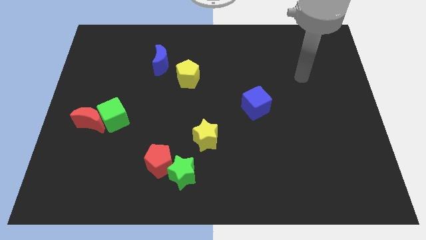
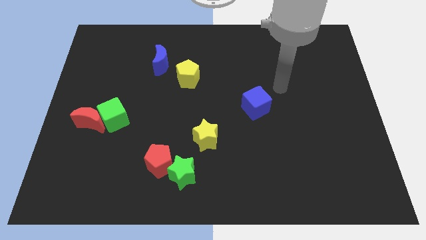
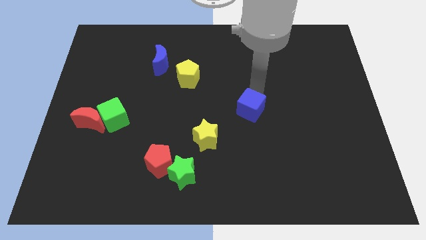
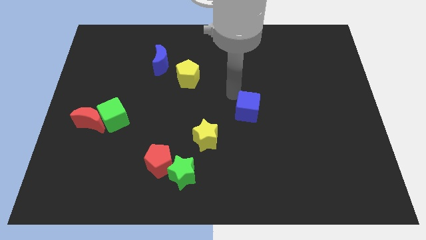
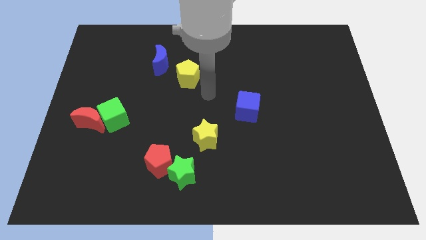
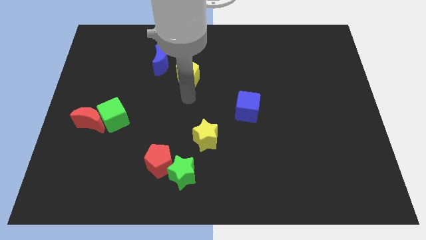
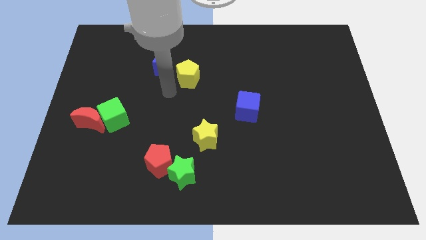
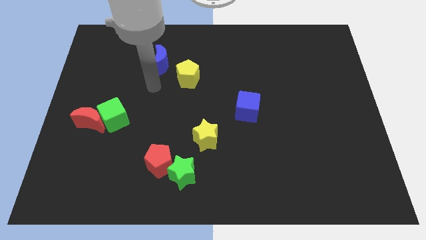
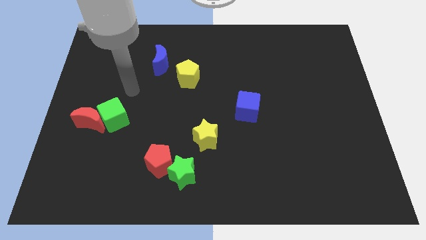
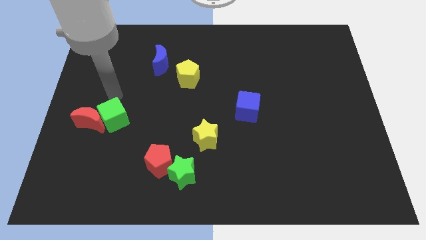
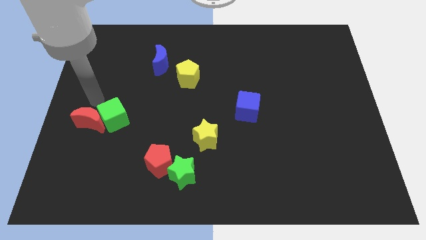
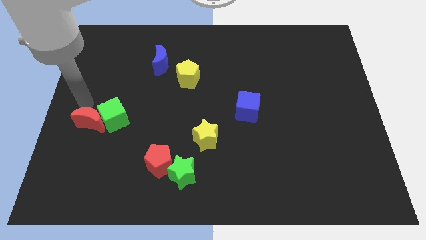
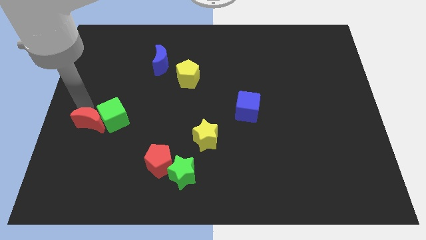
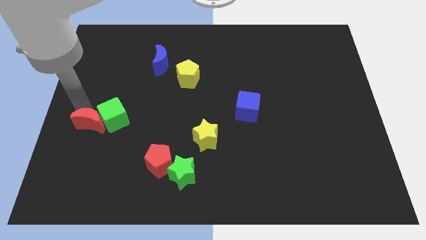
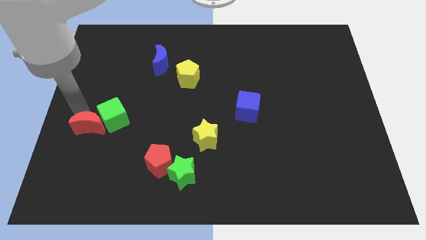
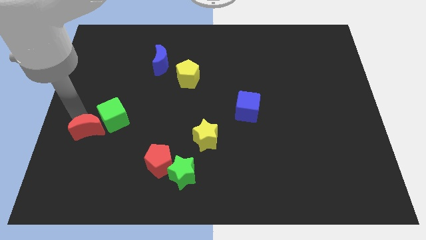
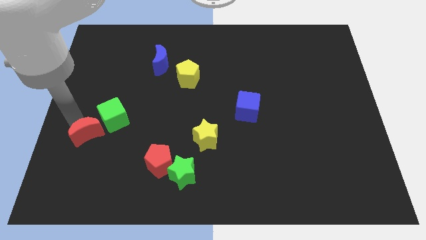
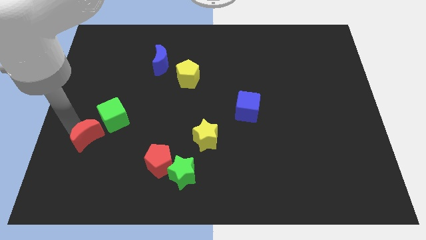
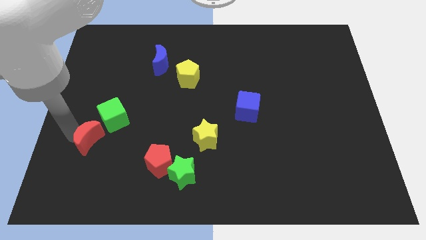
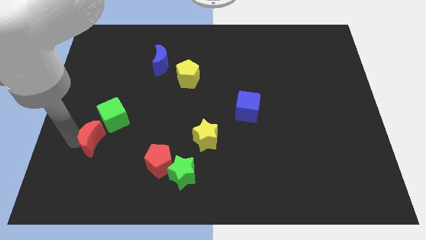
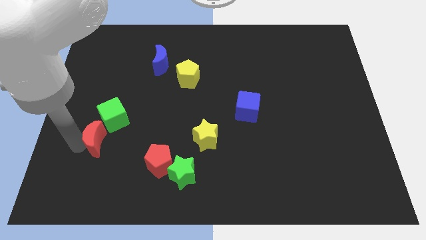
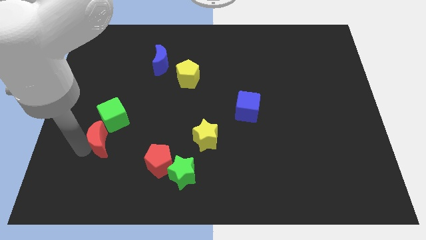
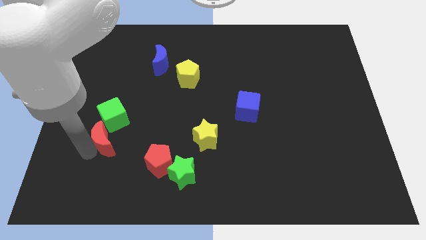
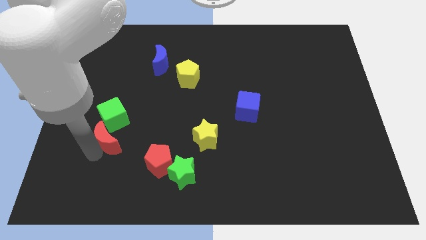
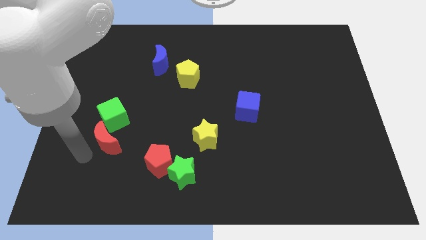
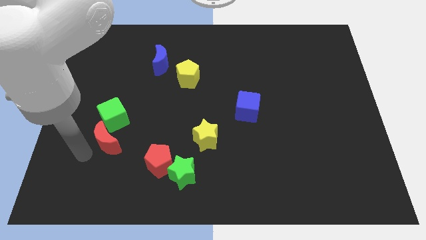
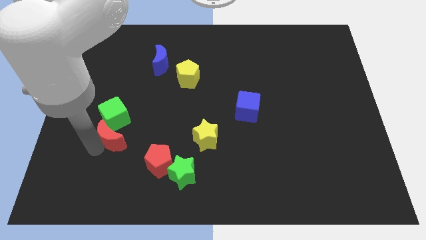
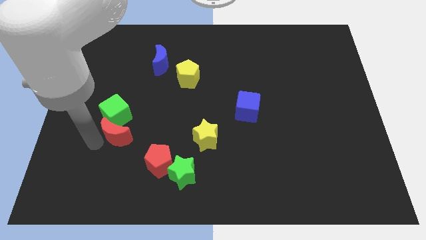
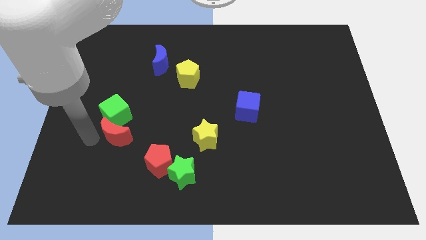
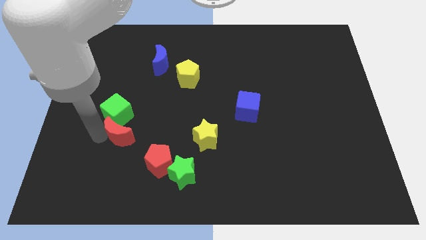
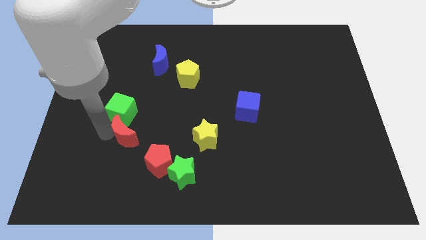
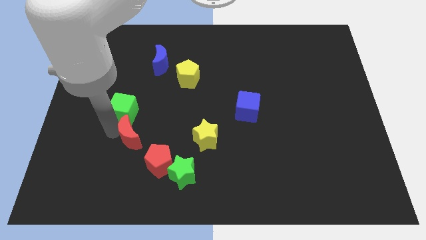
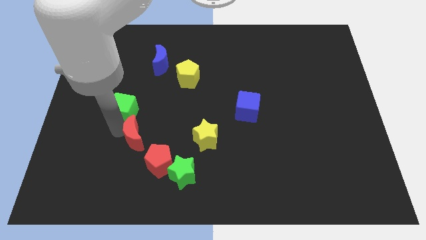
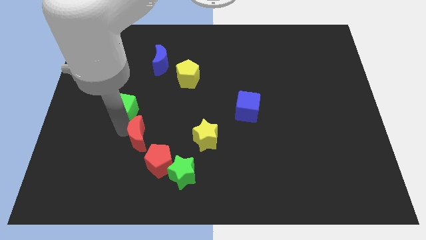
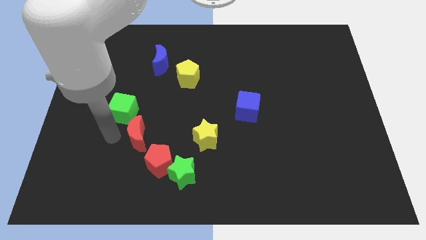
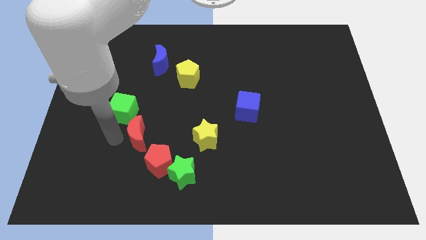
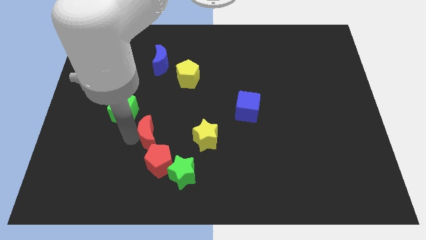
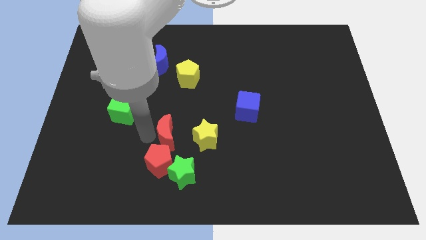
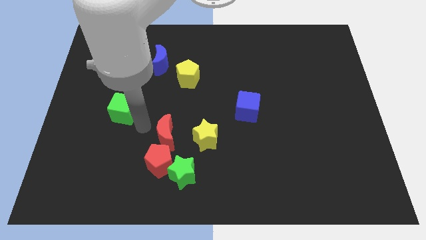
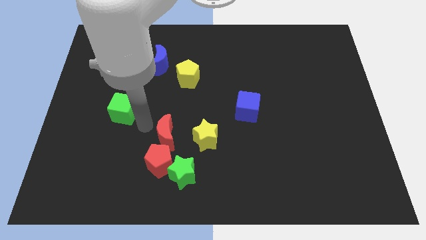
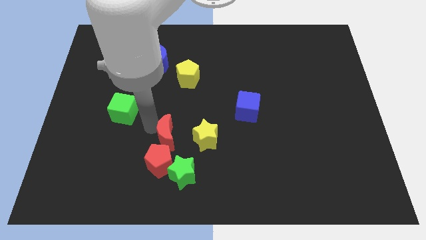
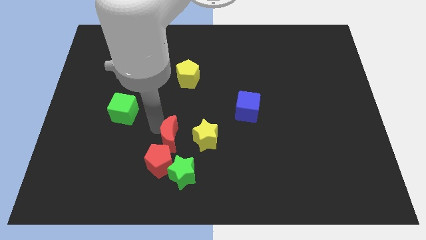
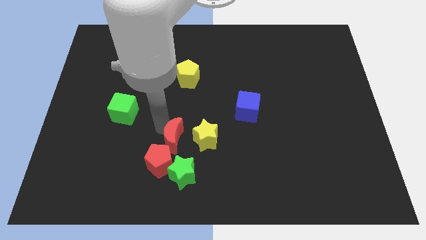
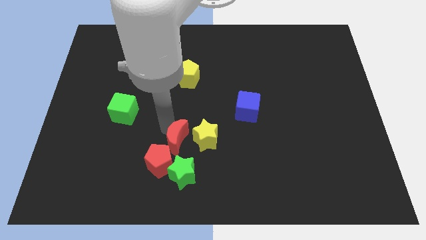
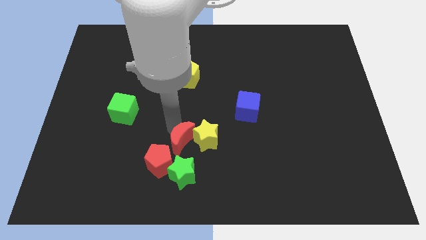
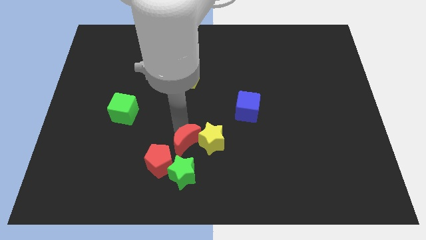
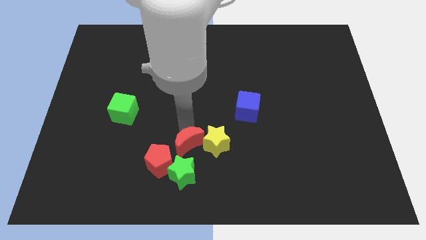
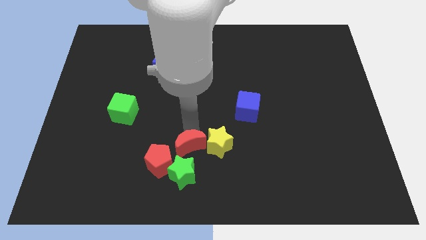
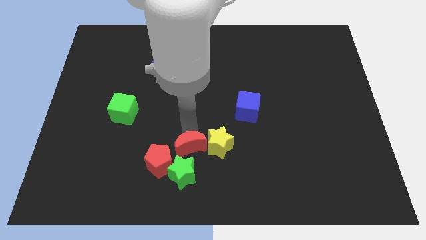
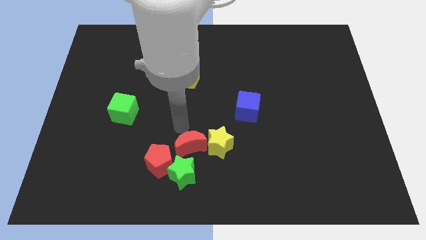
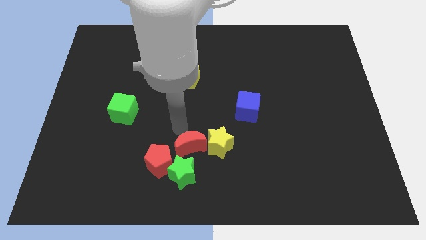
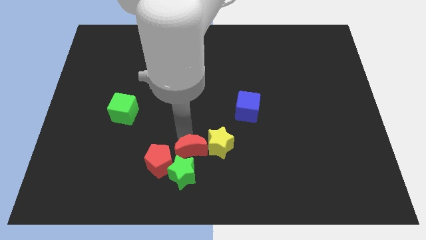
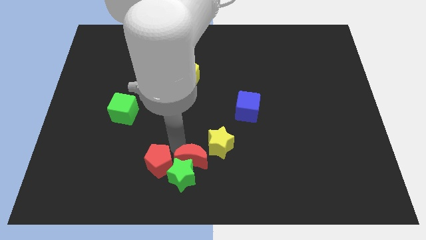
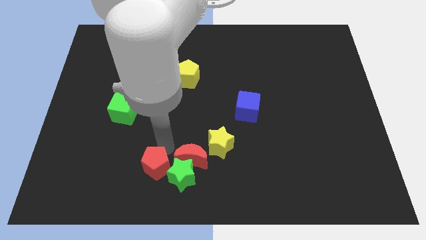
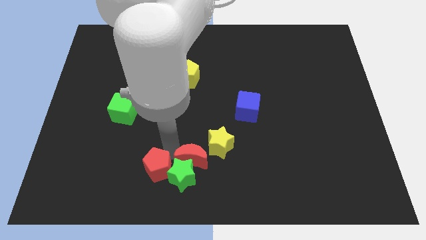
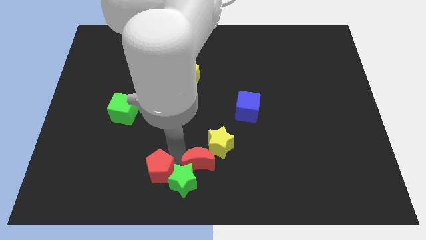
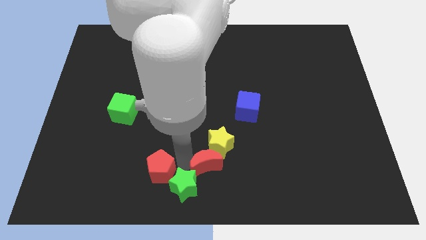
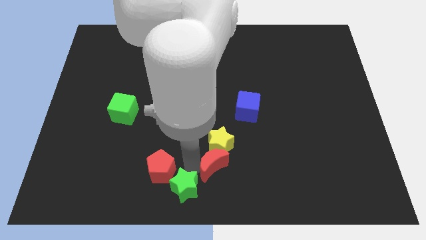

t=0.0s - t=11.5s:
put the red moon right of the green star

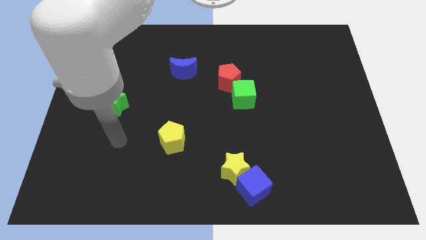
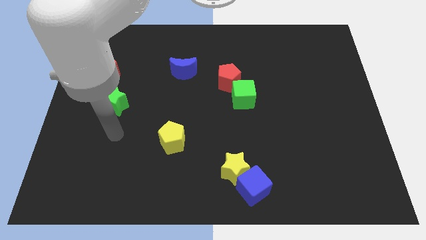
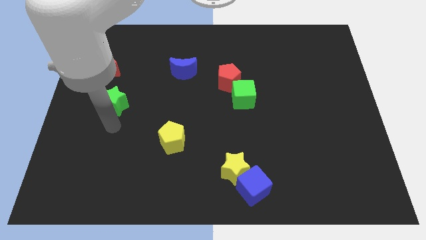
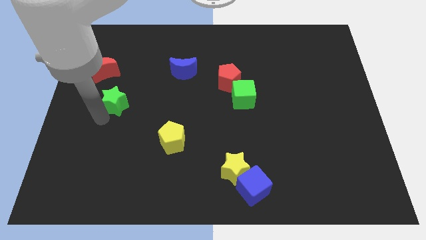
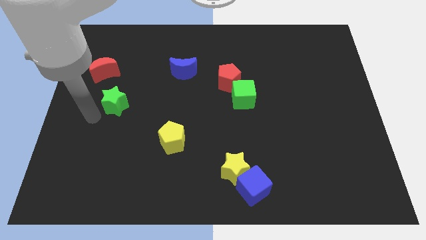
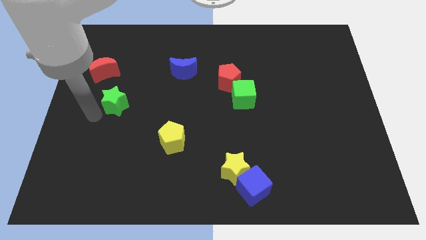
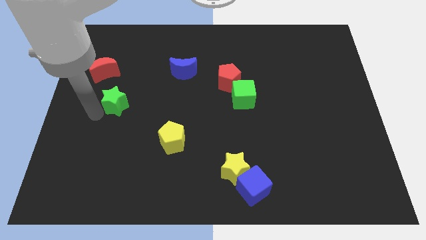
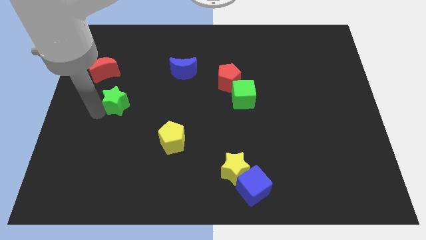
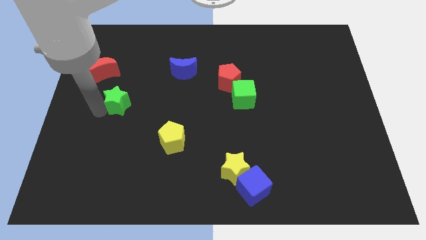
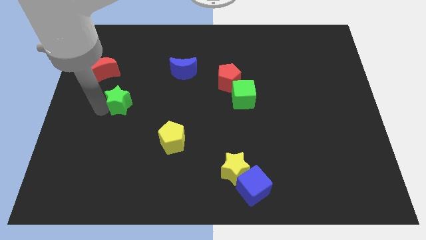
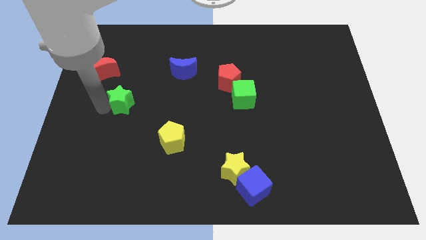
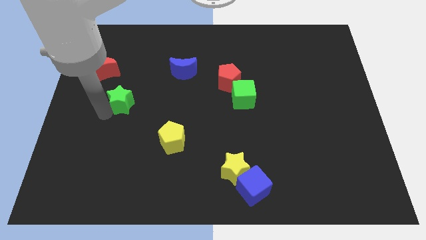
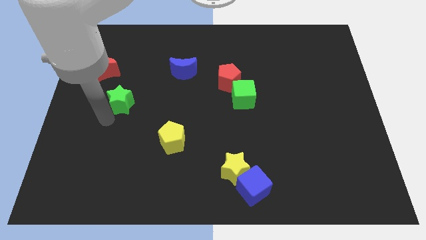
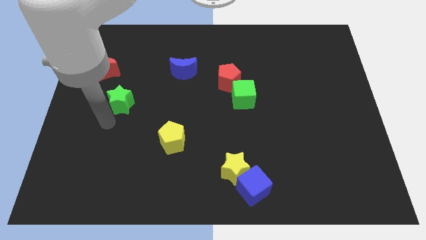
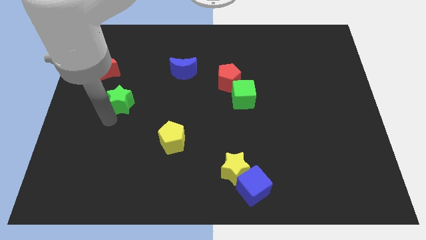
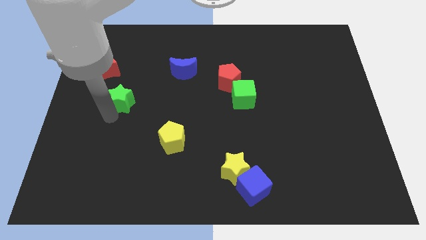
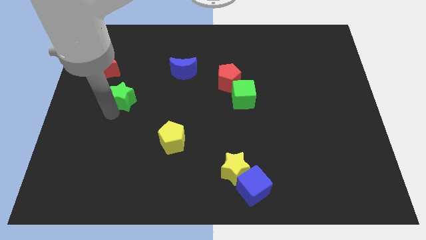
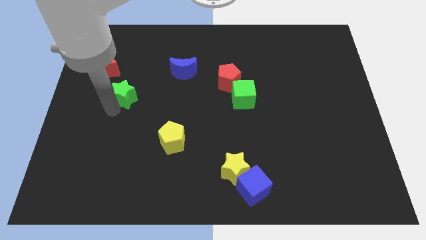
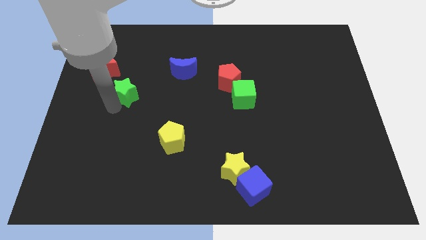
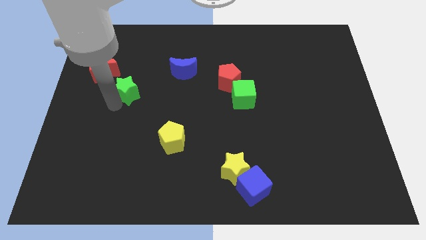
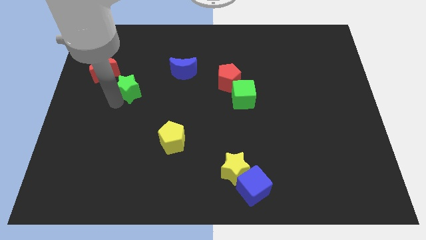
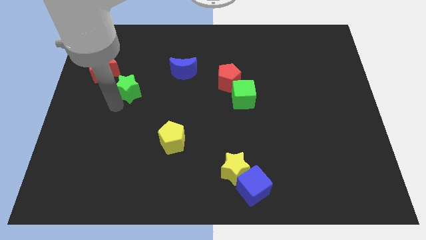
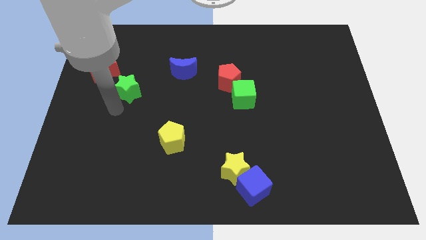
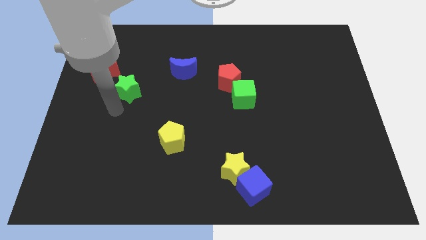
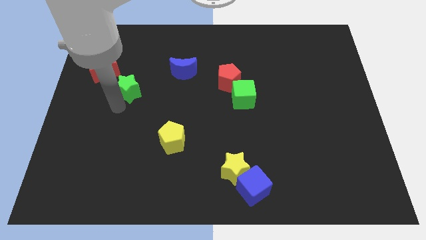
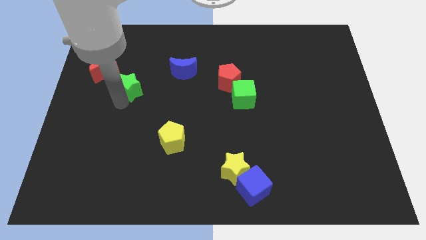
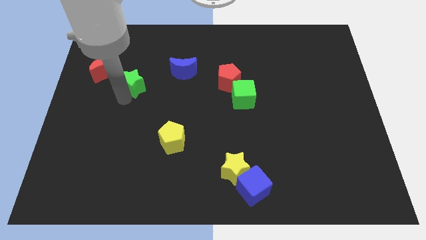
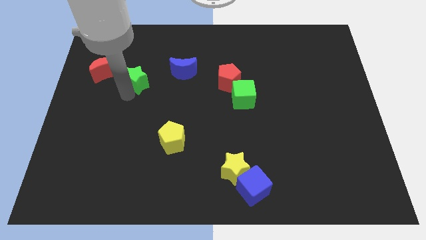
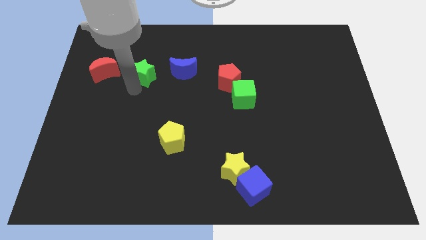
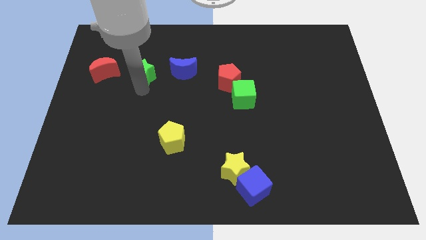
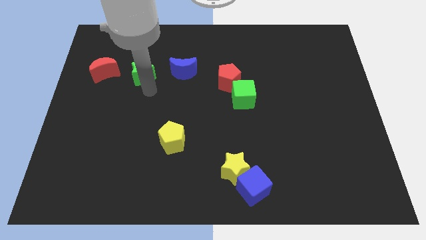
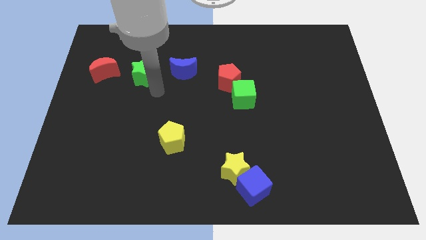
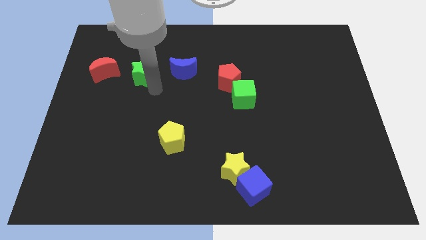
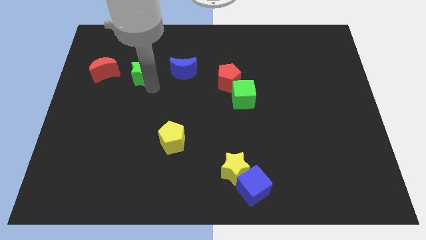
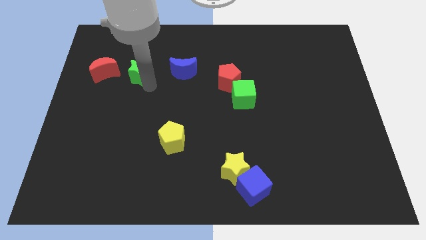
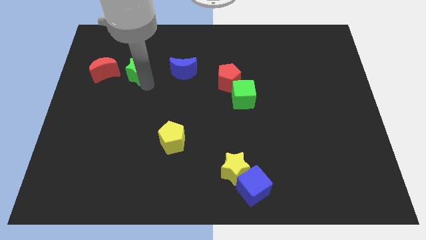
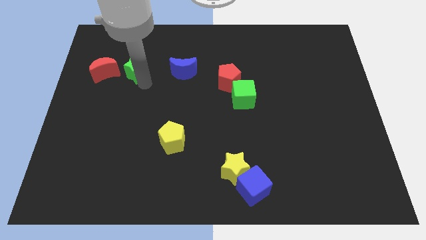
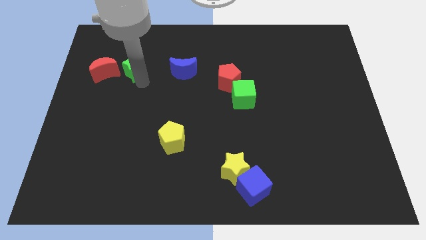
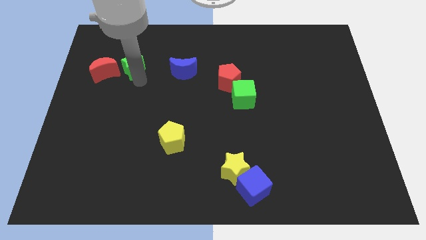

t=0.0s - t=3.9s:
push the green star diagonally up and to the right of the red moon
